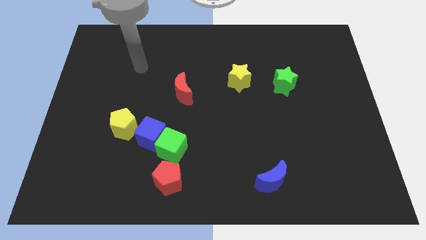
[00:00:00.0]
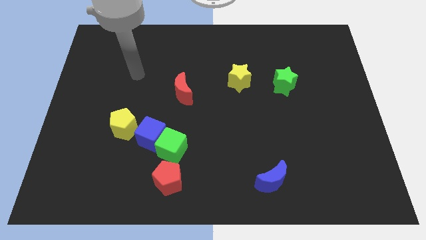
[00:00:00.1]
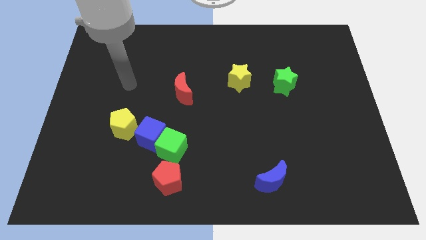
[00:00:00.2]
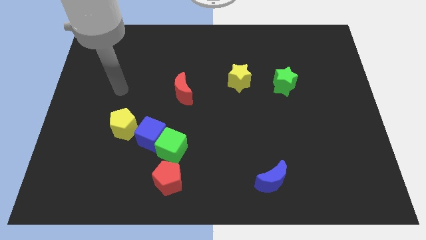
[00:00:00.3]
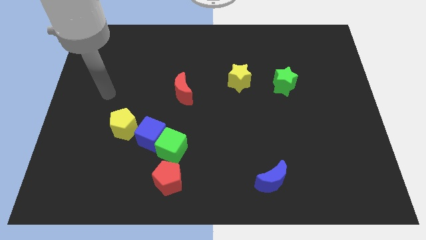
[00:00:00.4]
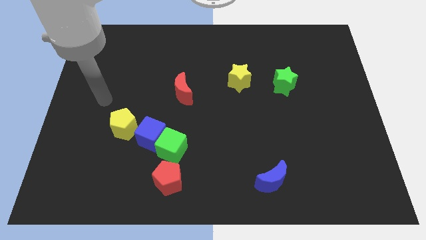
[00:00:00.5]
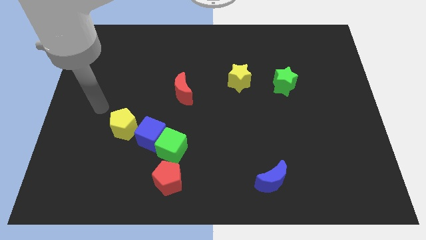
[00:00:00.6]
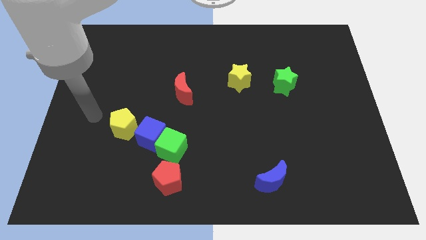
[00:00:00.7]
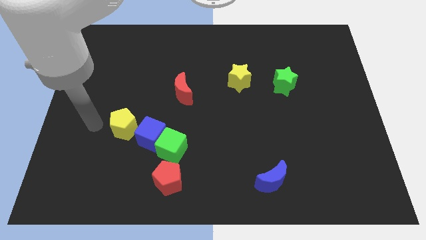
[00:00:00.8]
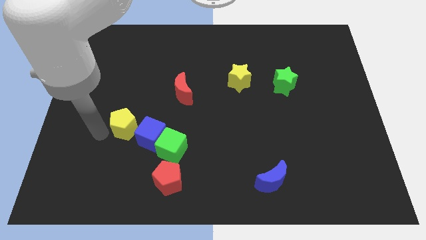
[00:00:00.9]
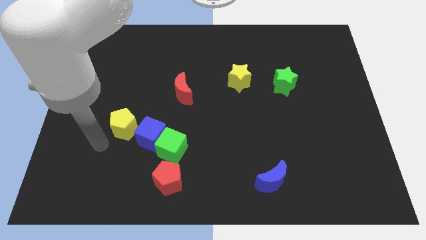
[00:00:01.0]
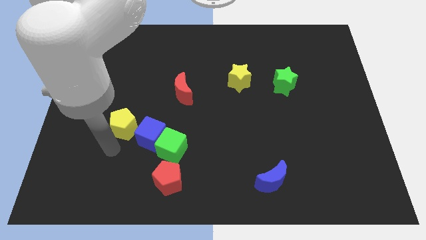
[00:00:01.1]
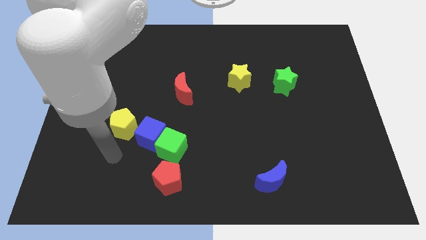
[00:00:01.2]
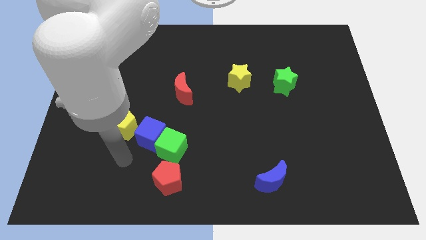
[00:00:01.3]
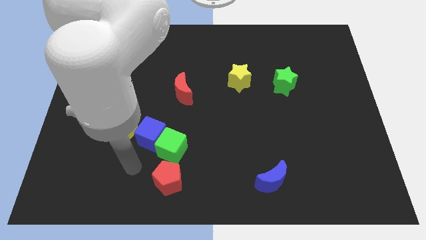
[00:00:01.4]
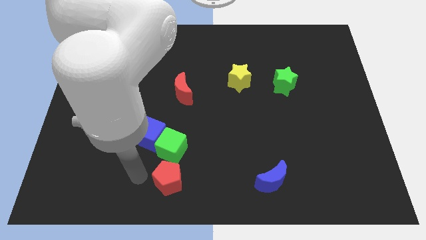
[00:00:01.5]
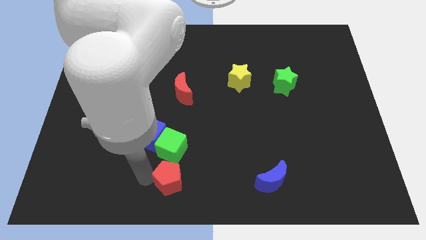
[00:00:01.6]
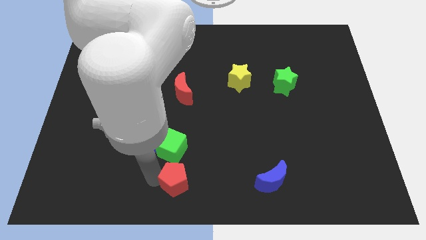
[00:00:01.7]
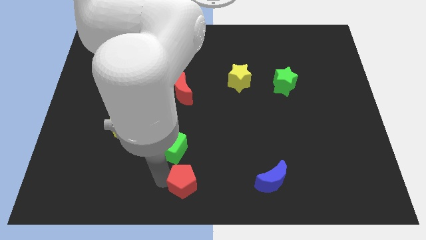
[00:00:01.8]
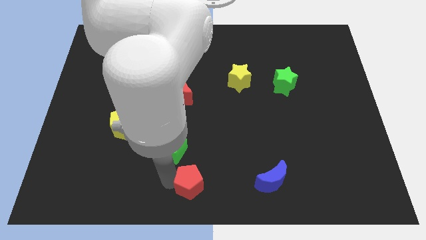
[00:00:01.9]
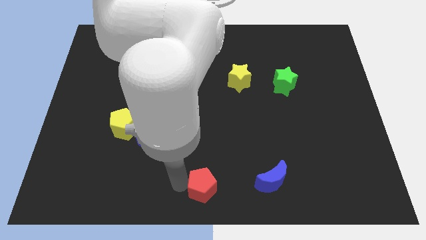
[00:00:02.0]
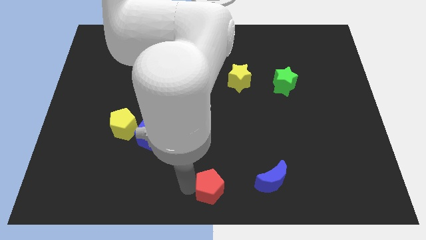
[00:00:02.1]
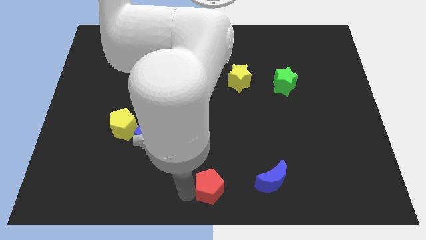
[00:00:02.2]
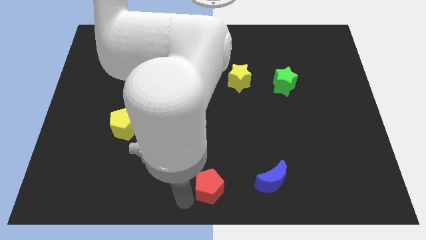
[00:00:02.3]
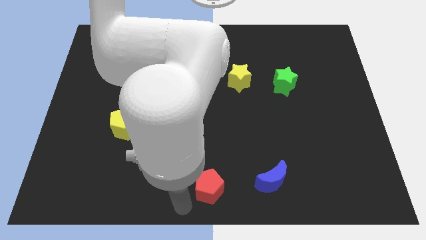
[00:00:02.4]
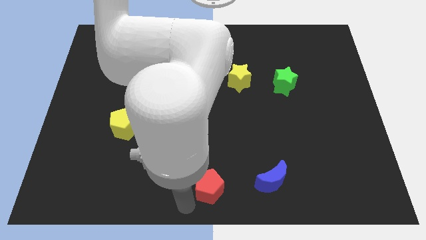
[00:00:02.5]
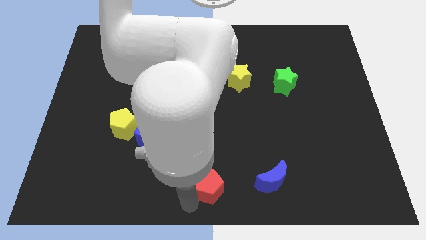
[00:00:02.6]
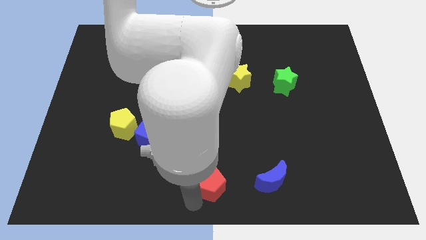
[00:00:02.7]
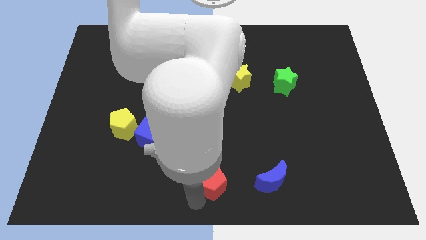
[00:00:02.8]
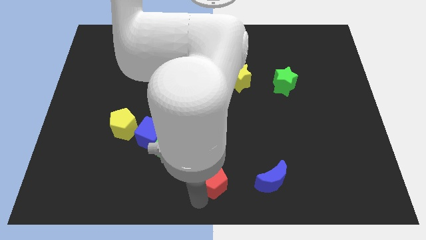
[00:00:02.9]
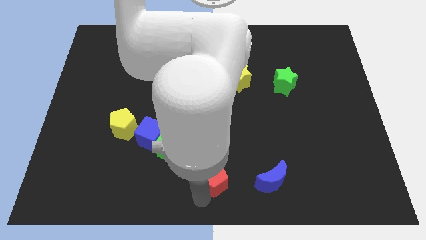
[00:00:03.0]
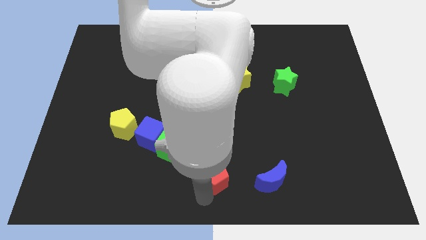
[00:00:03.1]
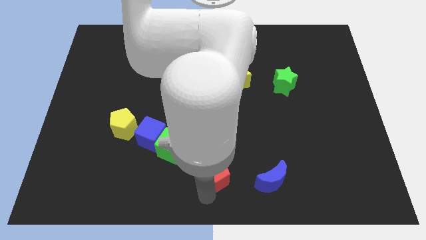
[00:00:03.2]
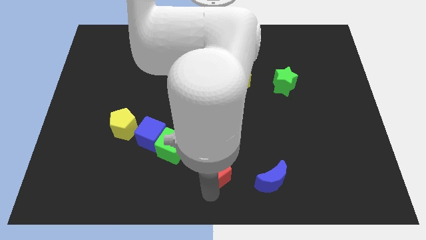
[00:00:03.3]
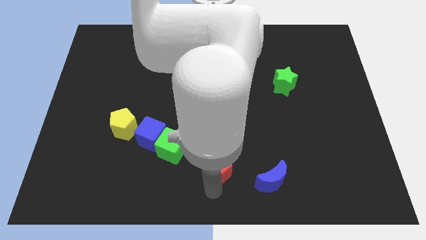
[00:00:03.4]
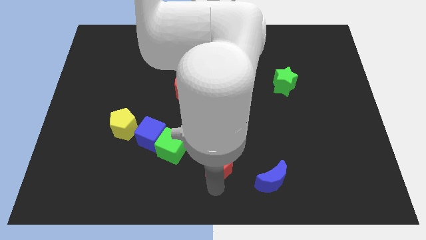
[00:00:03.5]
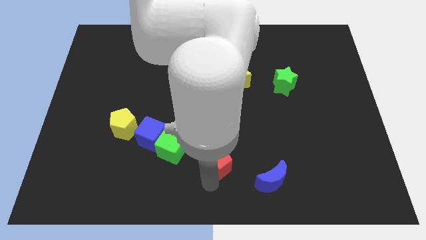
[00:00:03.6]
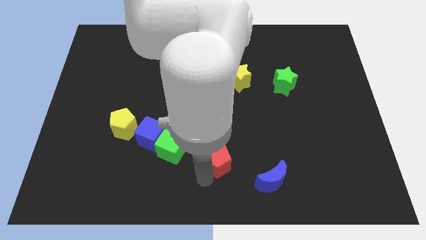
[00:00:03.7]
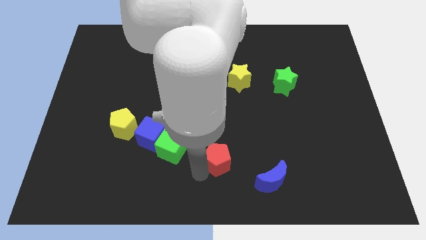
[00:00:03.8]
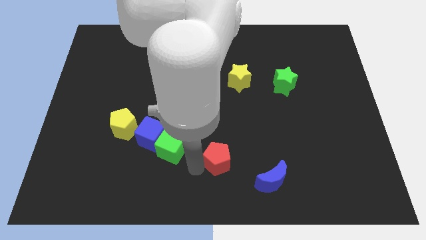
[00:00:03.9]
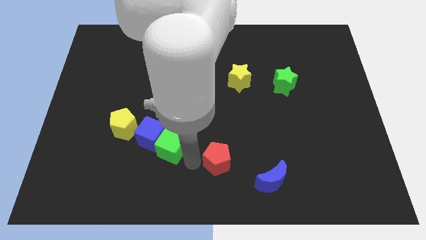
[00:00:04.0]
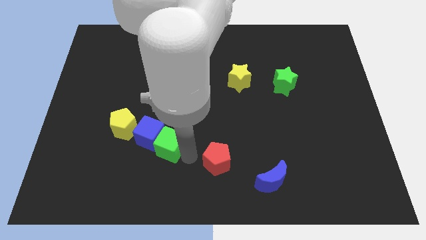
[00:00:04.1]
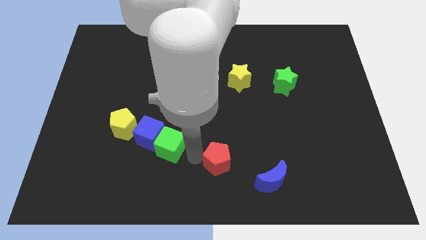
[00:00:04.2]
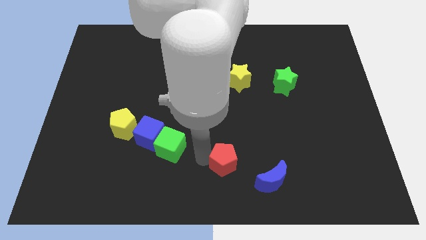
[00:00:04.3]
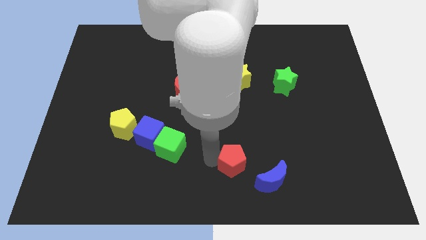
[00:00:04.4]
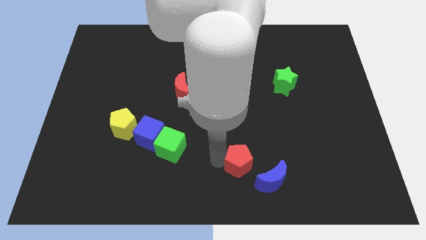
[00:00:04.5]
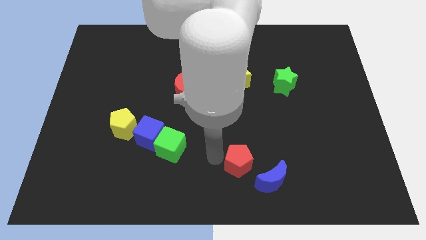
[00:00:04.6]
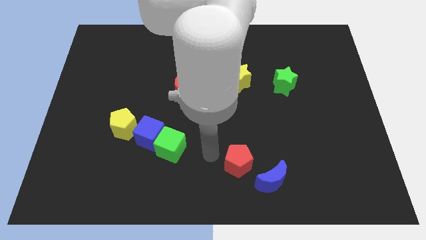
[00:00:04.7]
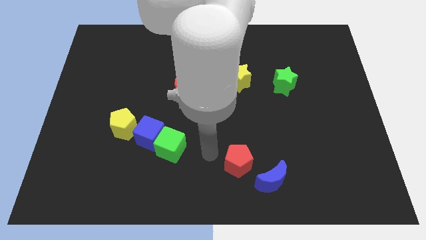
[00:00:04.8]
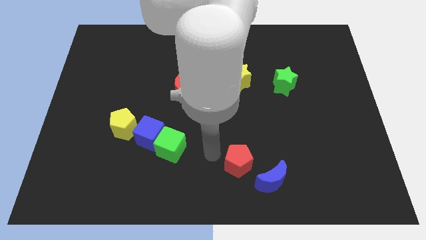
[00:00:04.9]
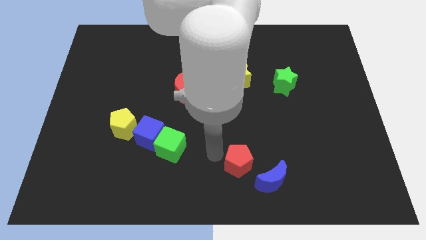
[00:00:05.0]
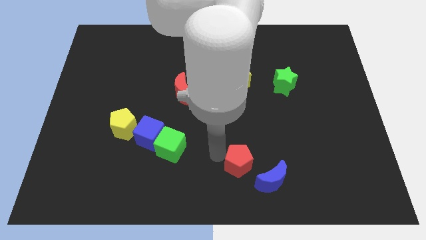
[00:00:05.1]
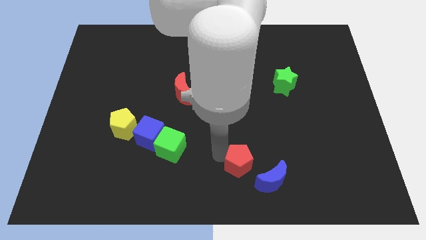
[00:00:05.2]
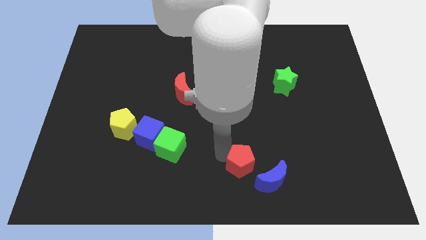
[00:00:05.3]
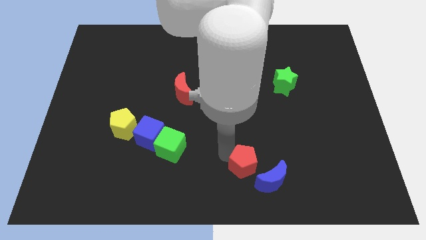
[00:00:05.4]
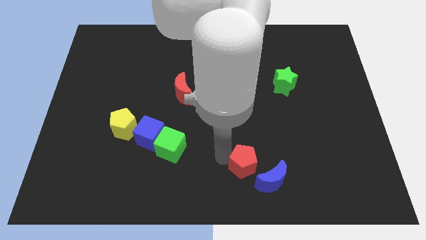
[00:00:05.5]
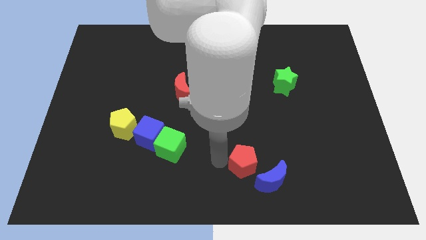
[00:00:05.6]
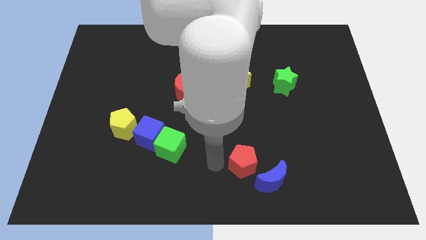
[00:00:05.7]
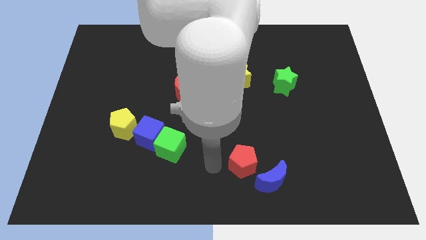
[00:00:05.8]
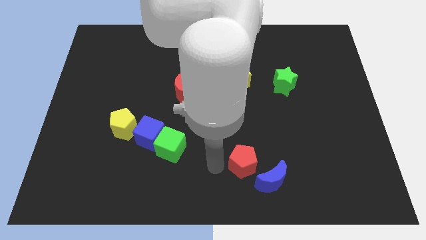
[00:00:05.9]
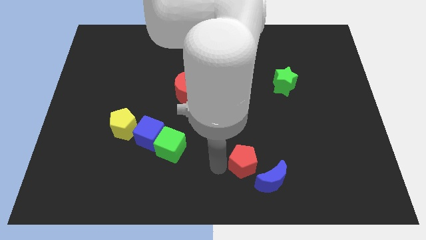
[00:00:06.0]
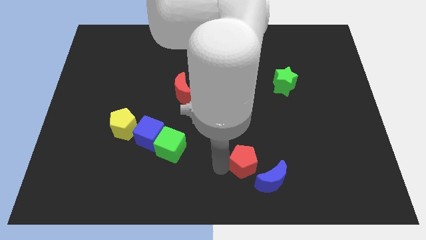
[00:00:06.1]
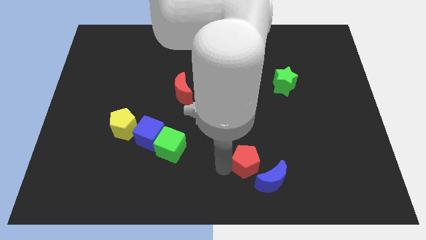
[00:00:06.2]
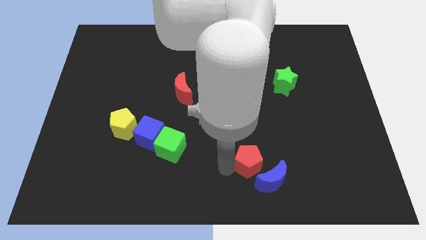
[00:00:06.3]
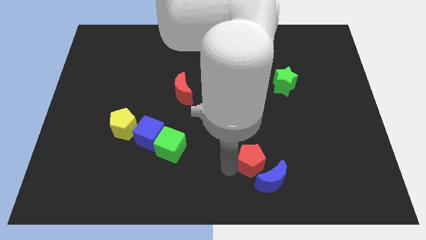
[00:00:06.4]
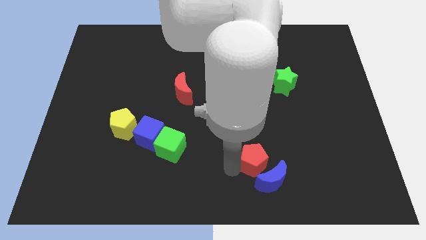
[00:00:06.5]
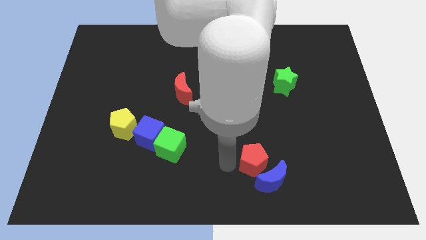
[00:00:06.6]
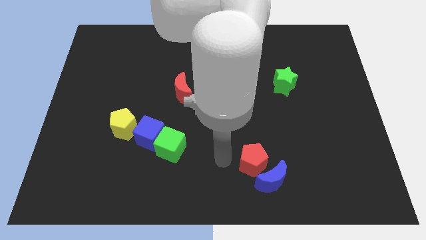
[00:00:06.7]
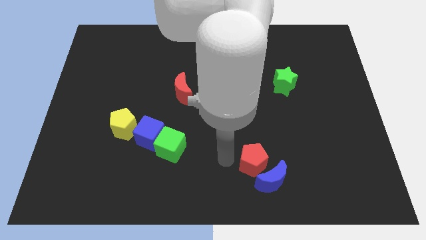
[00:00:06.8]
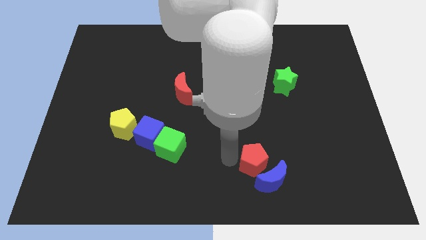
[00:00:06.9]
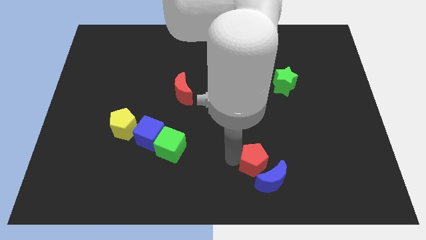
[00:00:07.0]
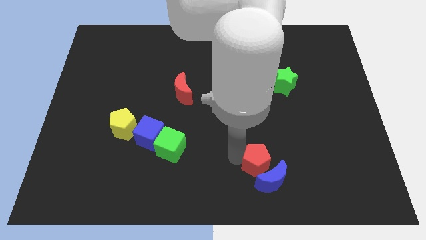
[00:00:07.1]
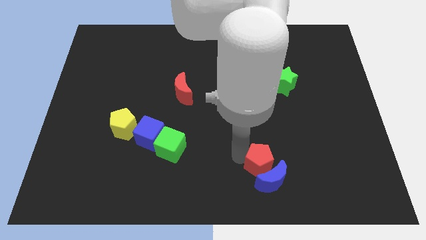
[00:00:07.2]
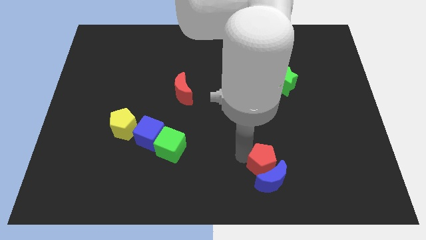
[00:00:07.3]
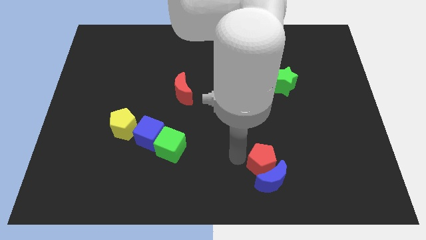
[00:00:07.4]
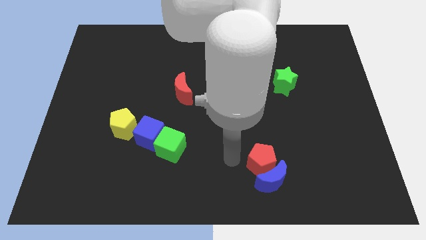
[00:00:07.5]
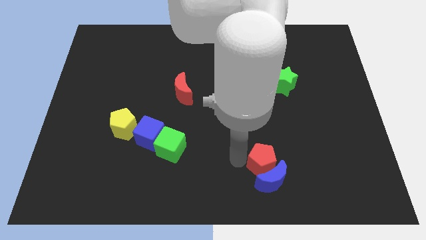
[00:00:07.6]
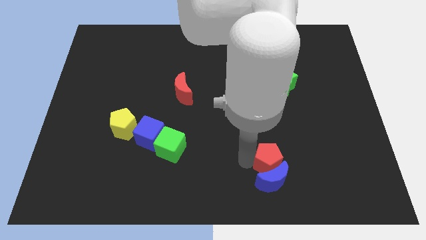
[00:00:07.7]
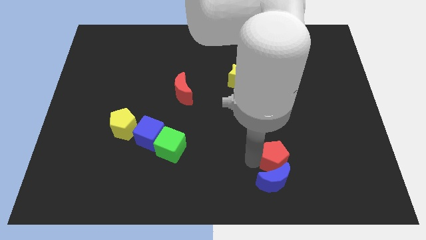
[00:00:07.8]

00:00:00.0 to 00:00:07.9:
slide the red pentagon right

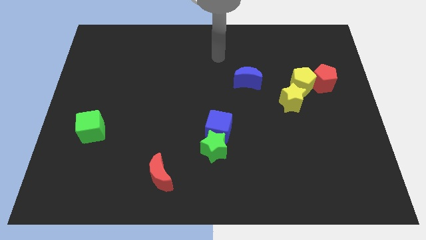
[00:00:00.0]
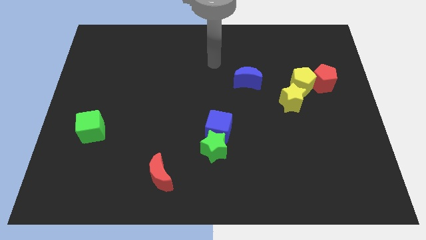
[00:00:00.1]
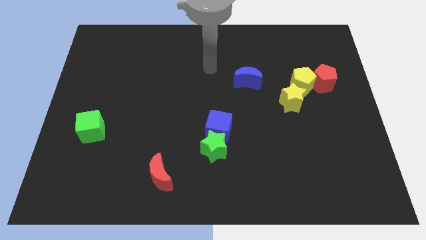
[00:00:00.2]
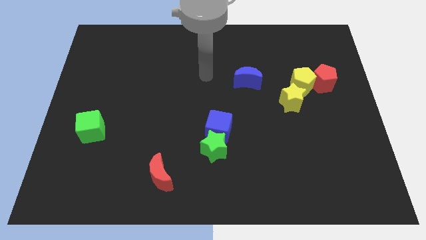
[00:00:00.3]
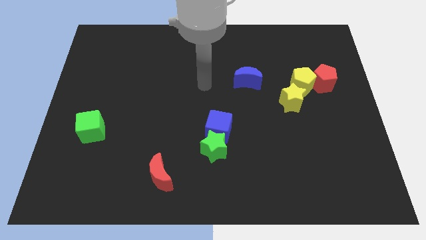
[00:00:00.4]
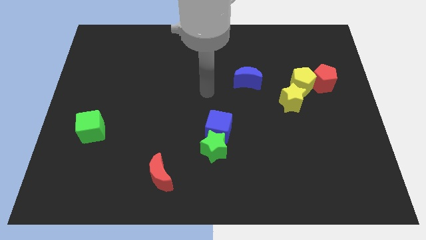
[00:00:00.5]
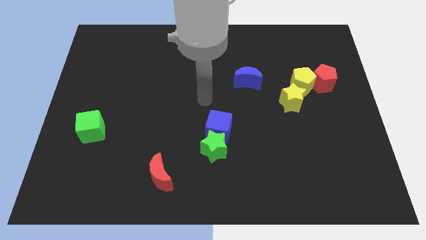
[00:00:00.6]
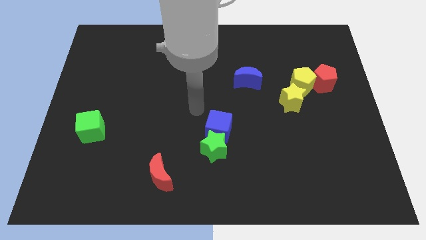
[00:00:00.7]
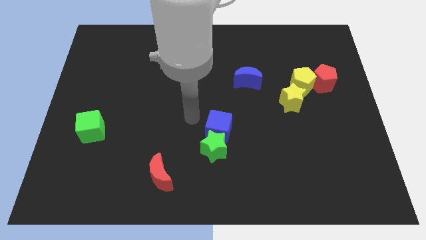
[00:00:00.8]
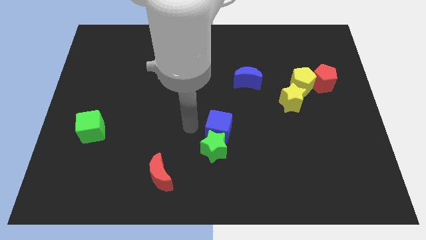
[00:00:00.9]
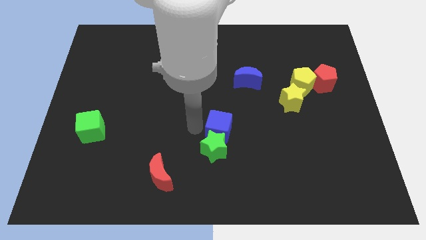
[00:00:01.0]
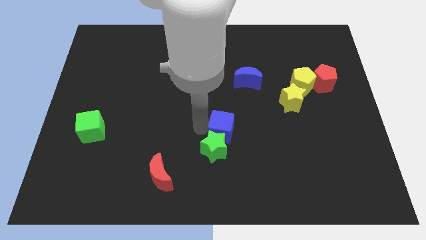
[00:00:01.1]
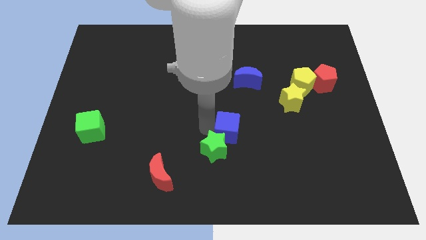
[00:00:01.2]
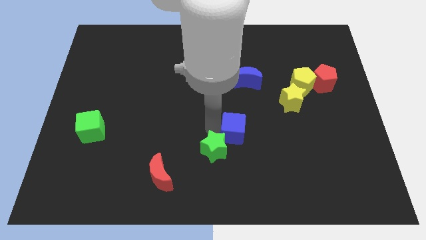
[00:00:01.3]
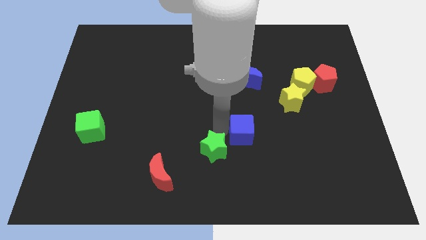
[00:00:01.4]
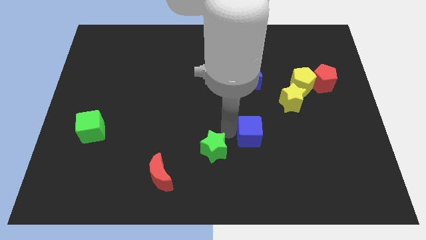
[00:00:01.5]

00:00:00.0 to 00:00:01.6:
slide the blue cube to the right a little
